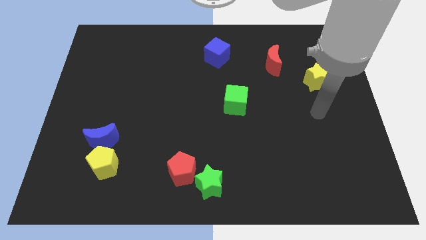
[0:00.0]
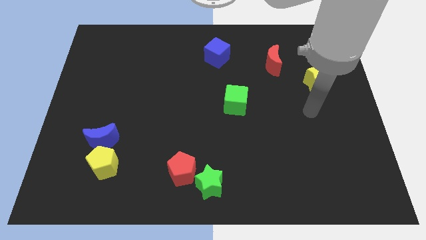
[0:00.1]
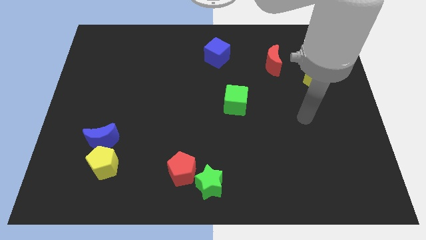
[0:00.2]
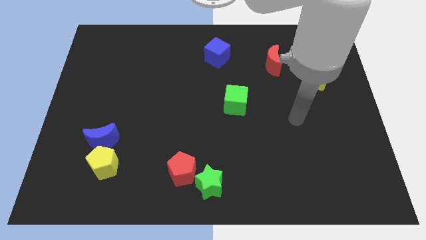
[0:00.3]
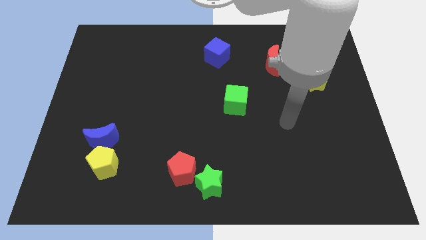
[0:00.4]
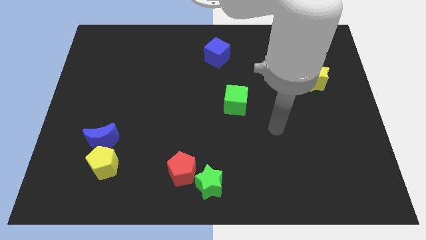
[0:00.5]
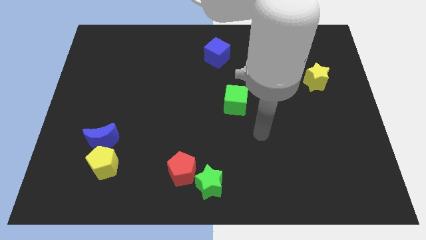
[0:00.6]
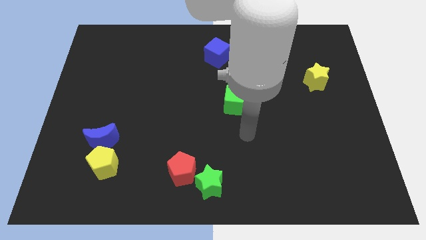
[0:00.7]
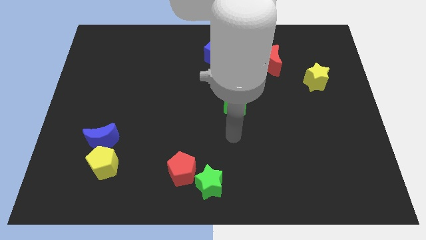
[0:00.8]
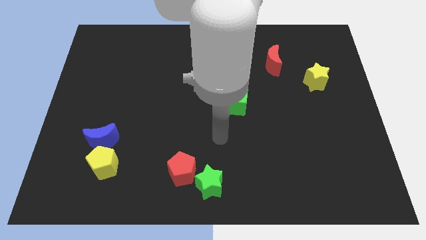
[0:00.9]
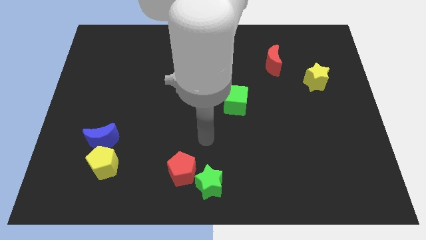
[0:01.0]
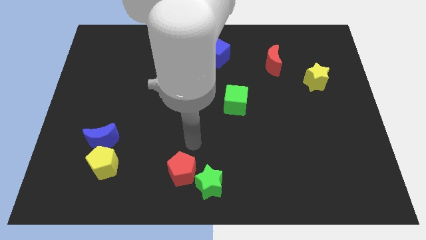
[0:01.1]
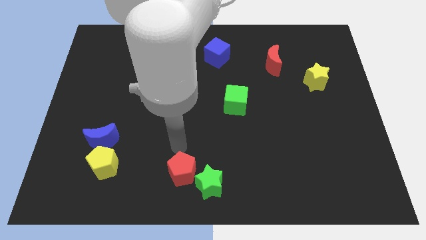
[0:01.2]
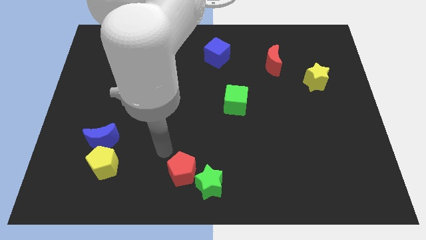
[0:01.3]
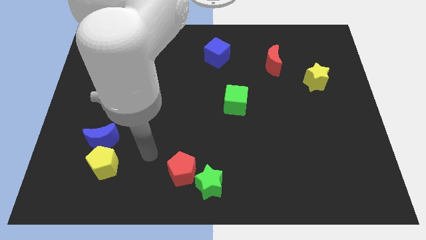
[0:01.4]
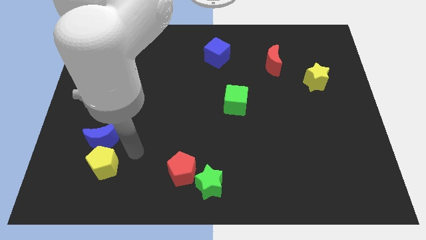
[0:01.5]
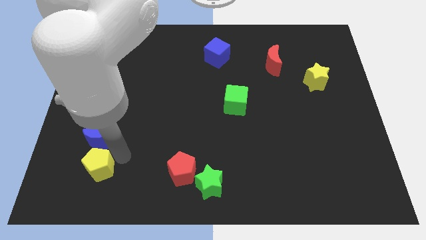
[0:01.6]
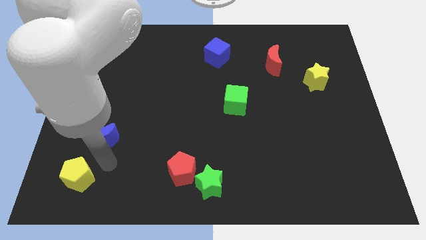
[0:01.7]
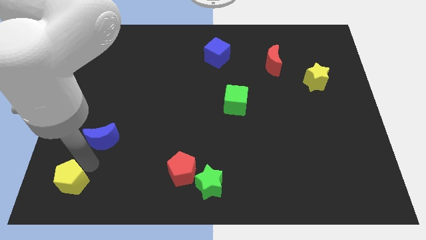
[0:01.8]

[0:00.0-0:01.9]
move the blue moon away from the yellow pentagon

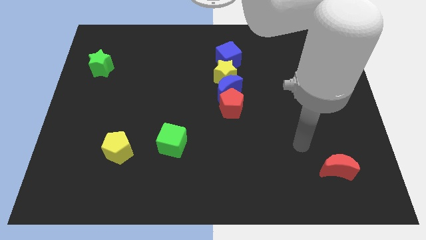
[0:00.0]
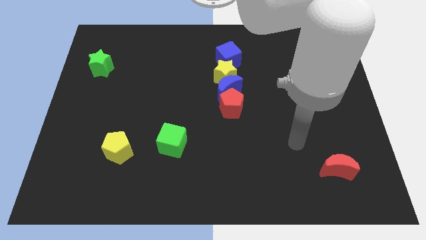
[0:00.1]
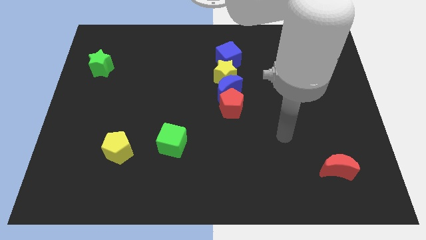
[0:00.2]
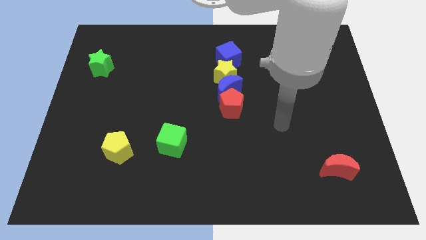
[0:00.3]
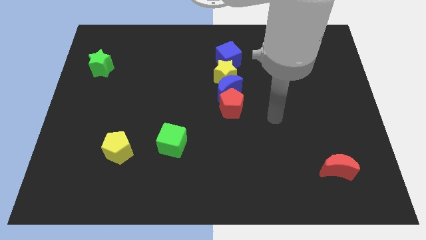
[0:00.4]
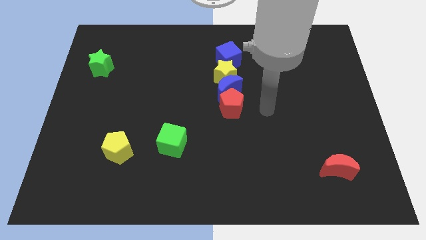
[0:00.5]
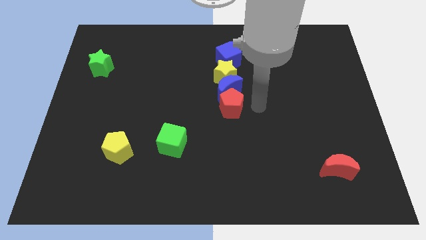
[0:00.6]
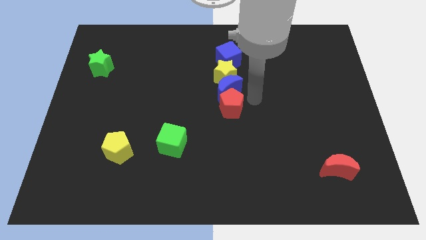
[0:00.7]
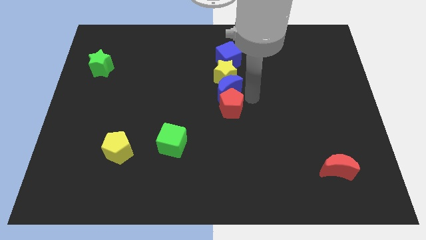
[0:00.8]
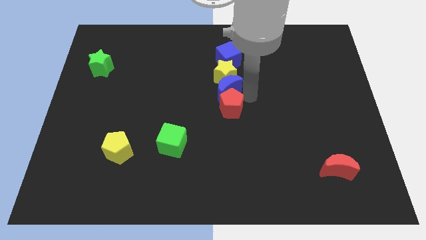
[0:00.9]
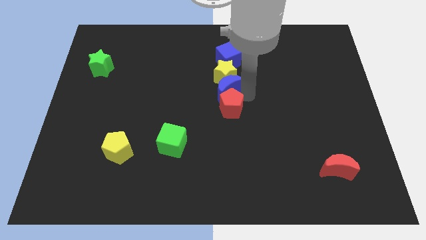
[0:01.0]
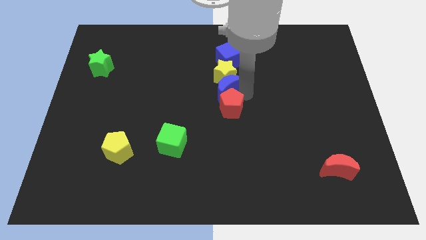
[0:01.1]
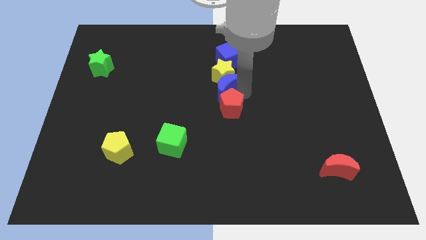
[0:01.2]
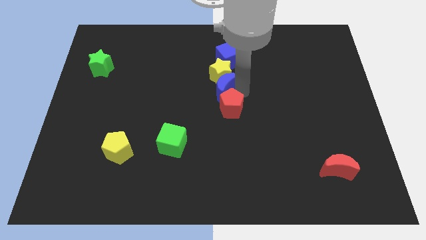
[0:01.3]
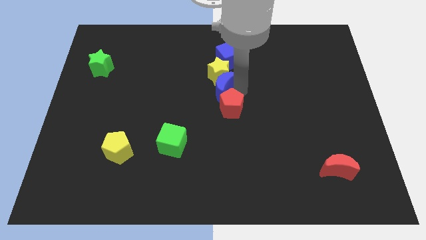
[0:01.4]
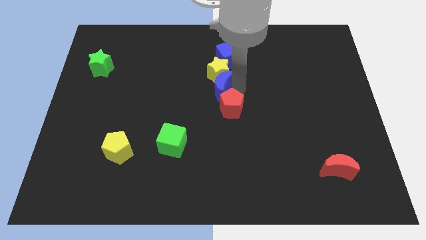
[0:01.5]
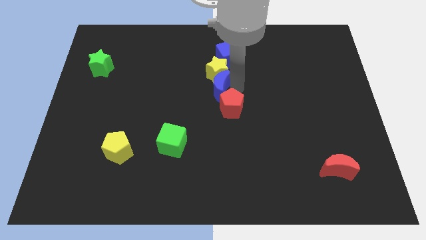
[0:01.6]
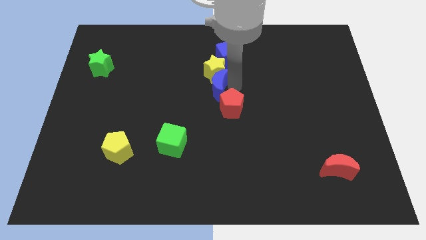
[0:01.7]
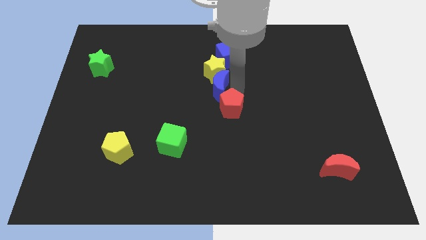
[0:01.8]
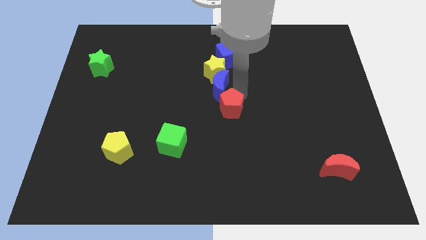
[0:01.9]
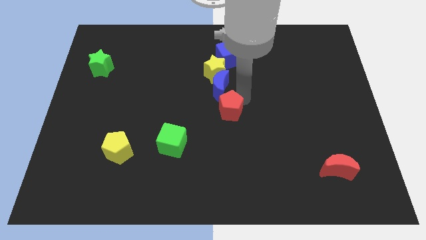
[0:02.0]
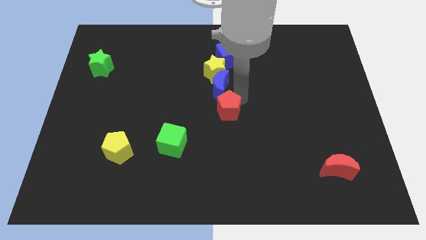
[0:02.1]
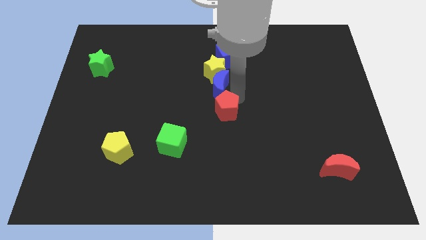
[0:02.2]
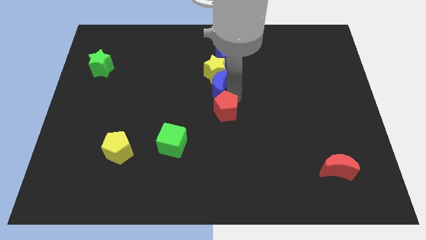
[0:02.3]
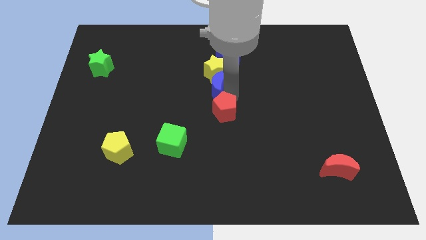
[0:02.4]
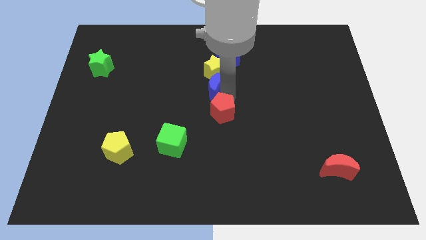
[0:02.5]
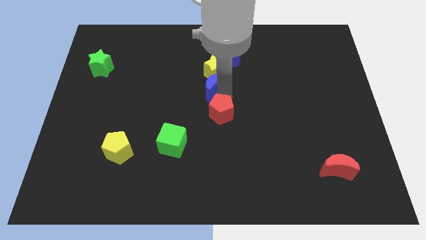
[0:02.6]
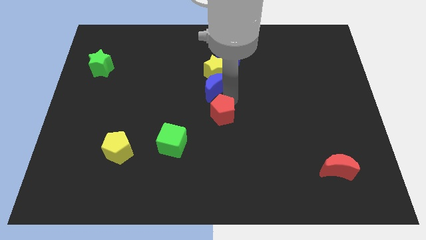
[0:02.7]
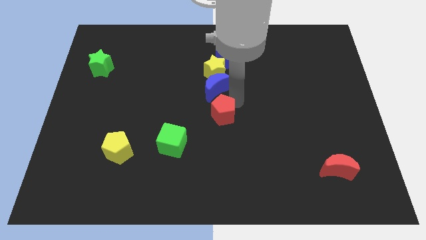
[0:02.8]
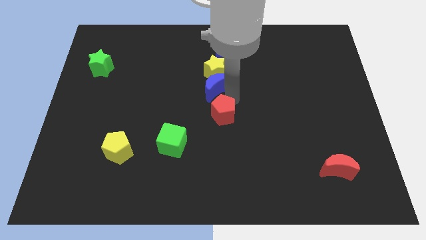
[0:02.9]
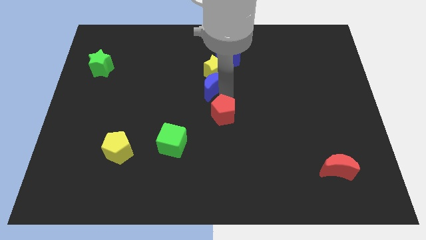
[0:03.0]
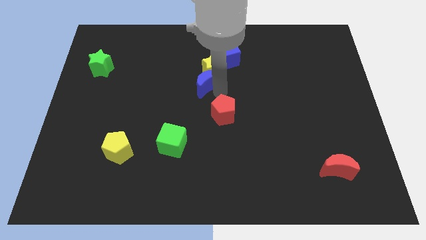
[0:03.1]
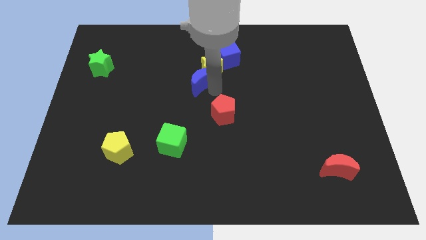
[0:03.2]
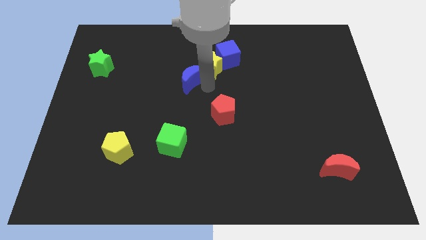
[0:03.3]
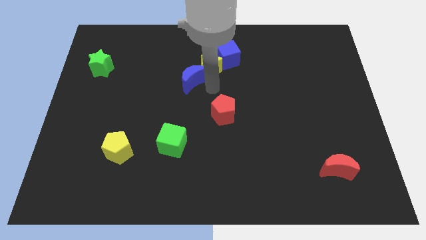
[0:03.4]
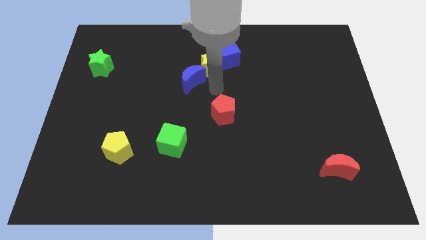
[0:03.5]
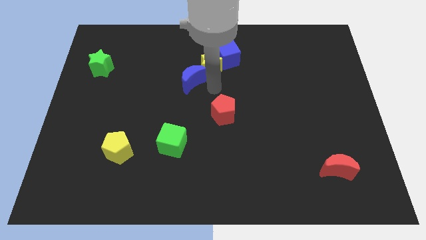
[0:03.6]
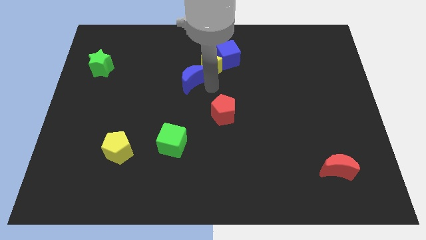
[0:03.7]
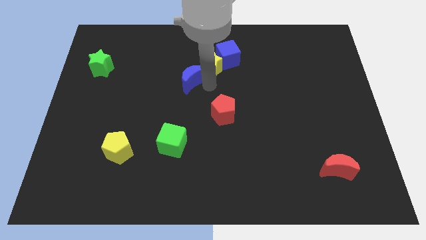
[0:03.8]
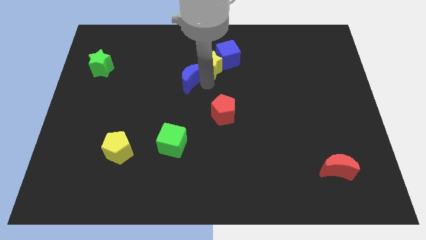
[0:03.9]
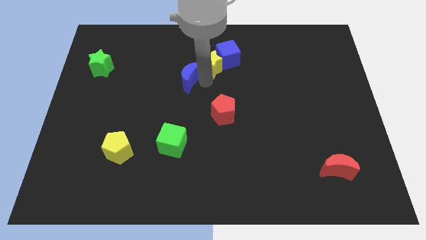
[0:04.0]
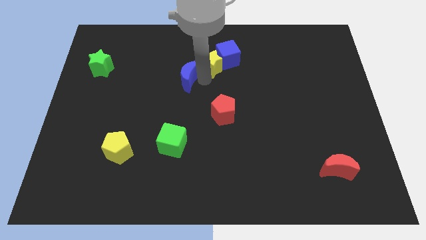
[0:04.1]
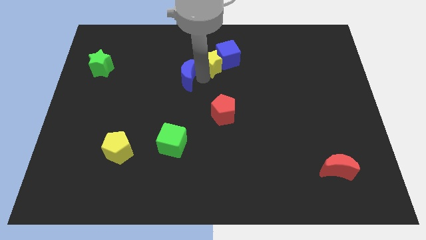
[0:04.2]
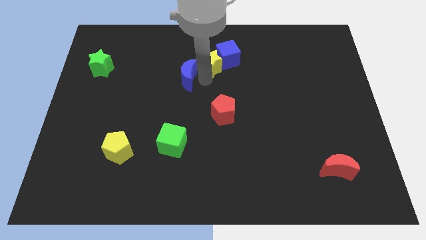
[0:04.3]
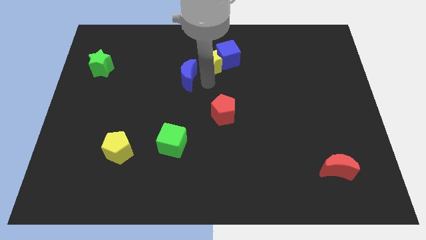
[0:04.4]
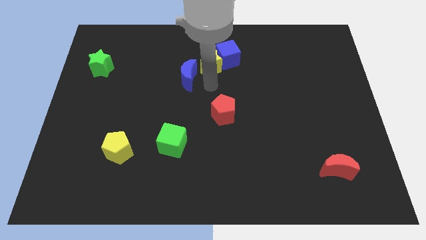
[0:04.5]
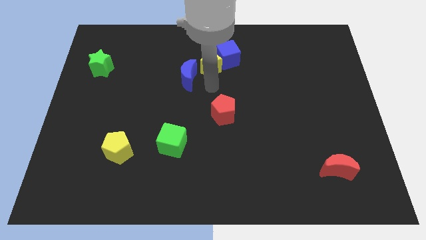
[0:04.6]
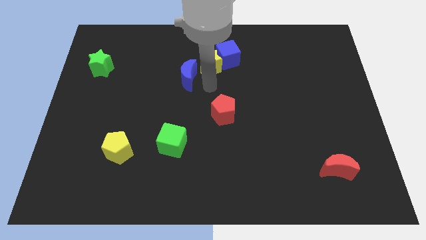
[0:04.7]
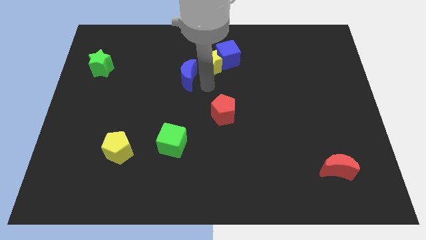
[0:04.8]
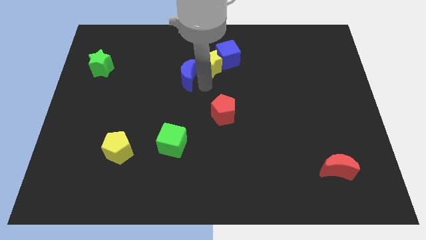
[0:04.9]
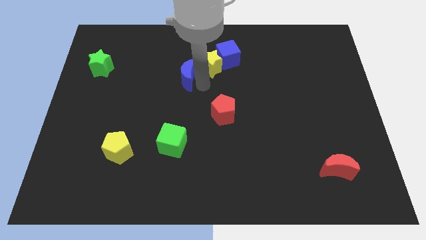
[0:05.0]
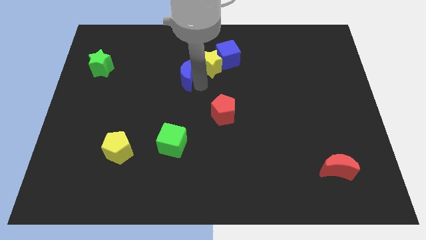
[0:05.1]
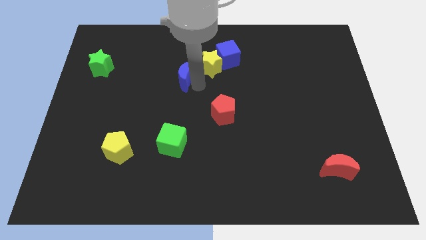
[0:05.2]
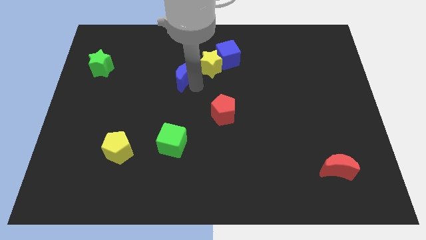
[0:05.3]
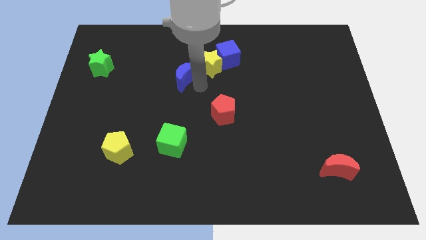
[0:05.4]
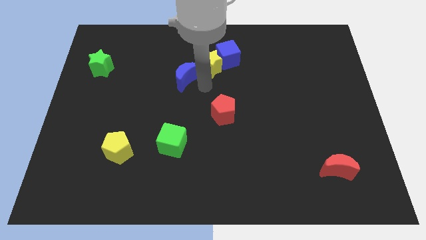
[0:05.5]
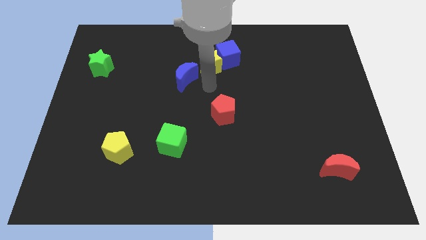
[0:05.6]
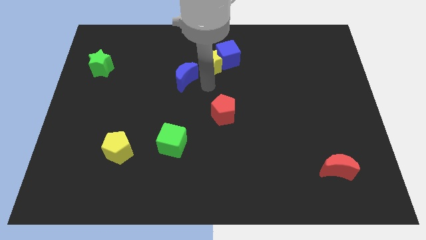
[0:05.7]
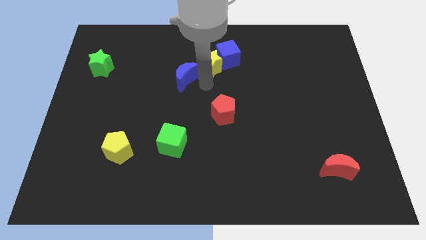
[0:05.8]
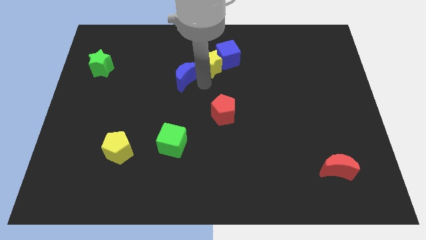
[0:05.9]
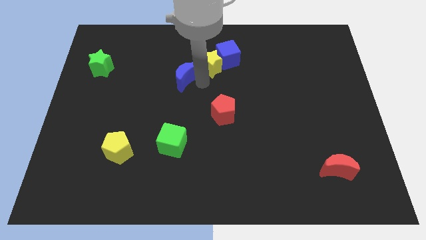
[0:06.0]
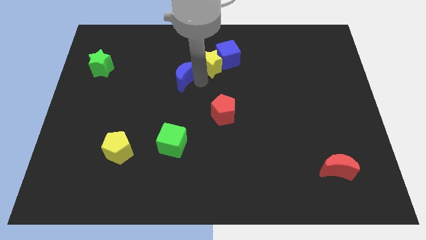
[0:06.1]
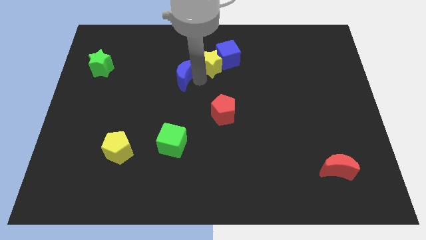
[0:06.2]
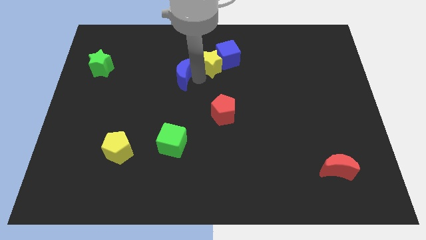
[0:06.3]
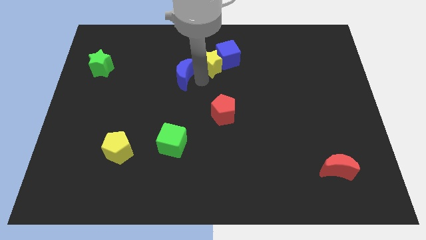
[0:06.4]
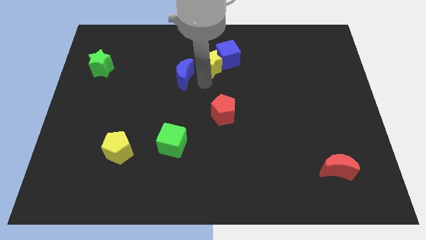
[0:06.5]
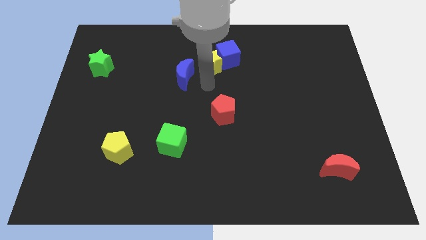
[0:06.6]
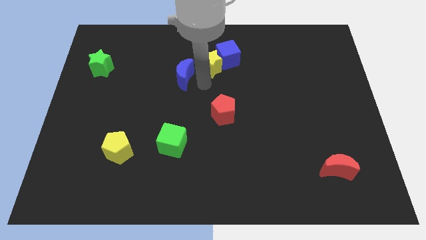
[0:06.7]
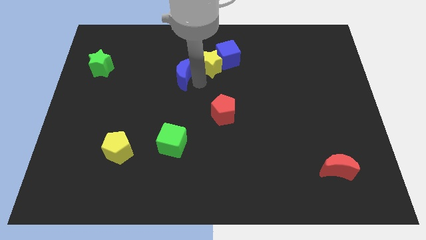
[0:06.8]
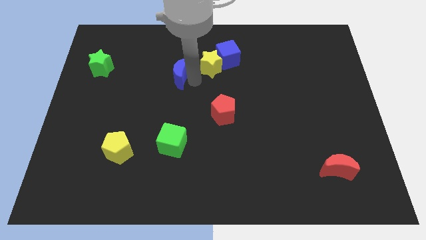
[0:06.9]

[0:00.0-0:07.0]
move the blue moon away from the yellow star and red pentagon

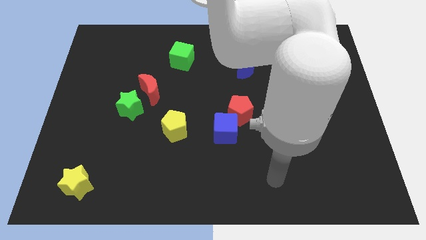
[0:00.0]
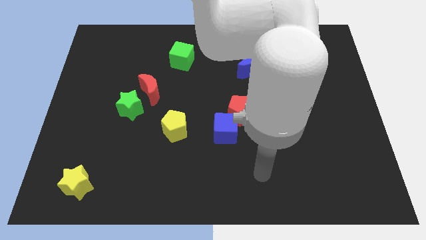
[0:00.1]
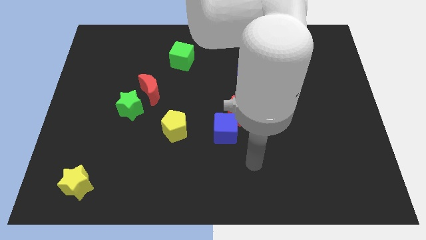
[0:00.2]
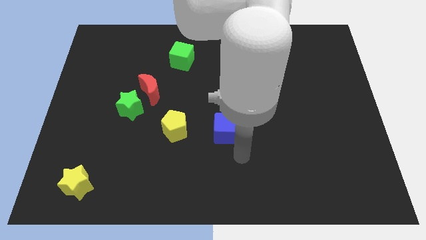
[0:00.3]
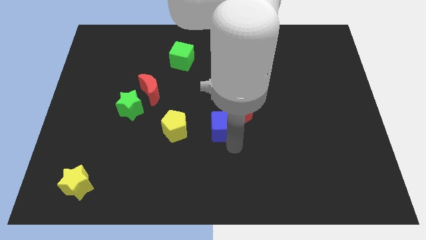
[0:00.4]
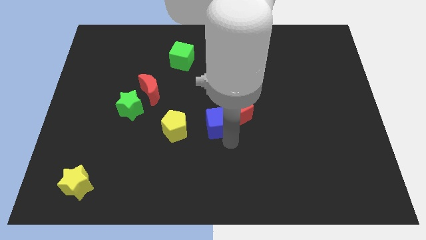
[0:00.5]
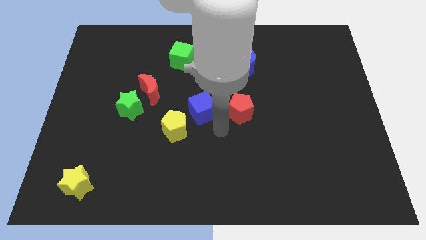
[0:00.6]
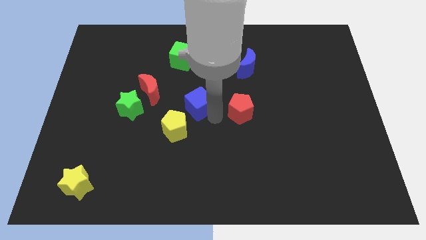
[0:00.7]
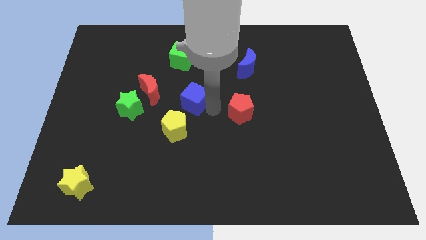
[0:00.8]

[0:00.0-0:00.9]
move the red pentagon away from the blue cube
